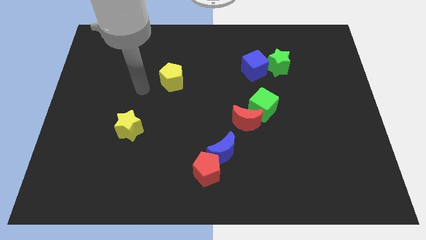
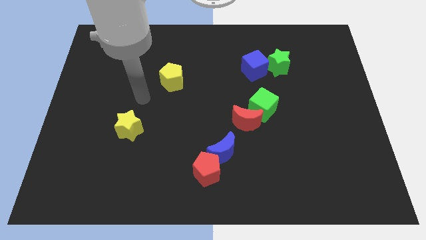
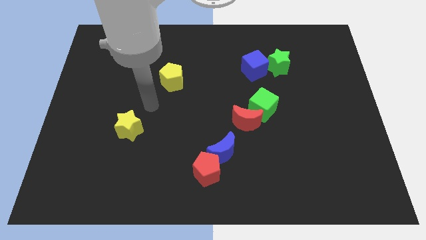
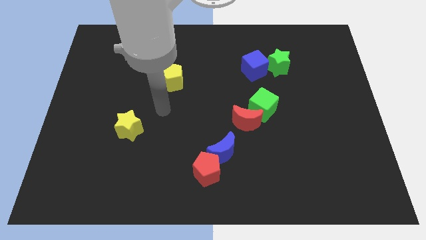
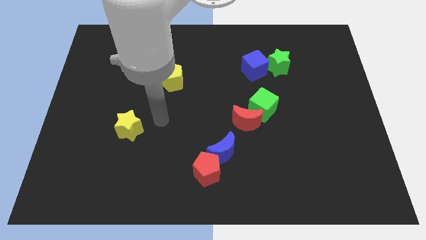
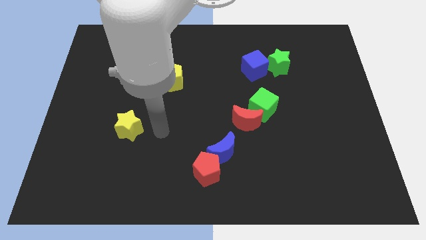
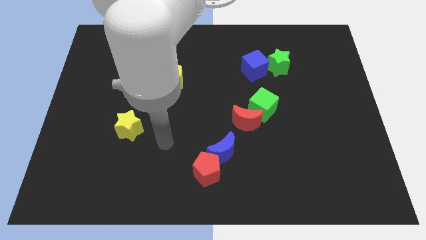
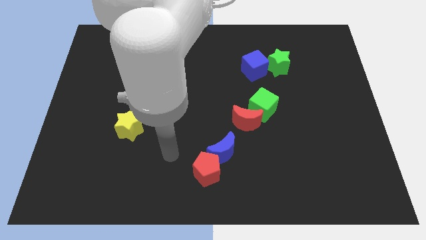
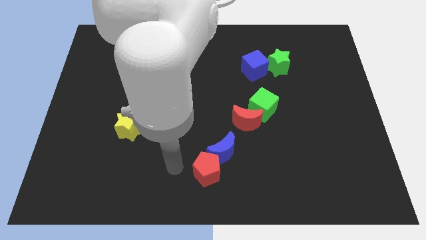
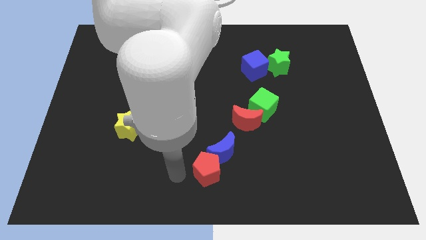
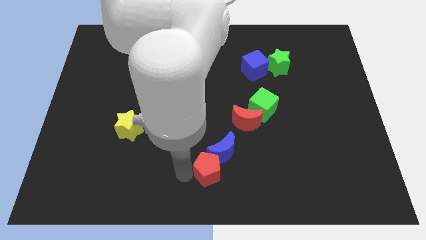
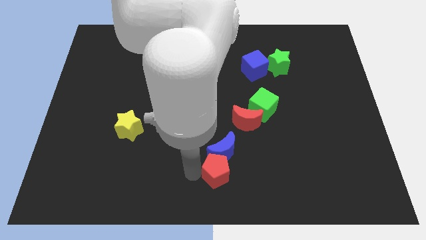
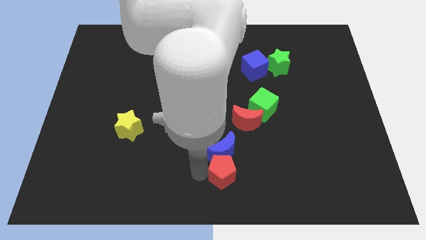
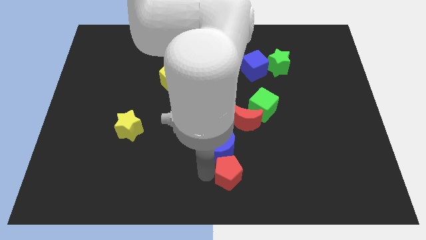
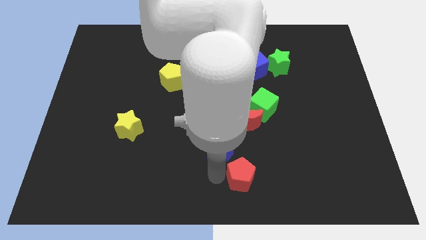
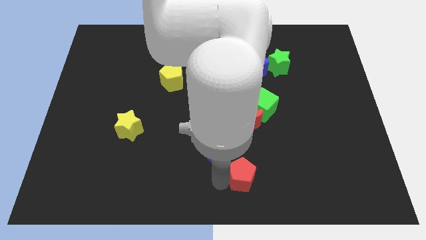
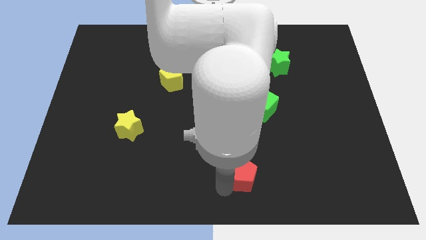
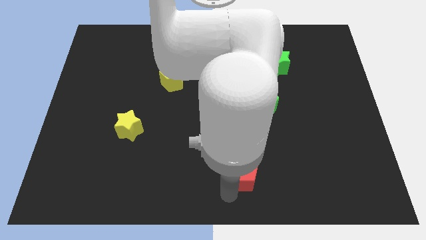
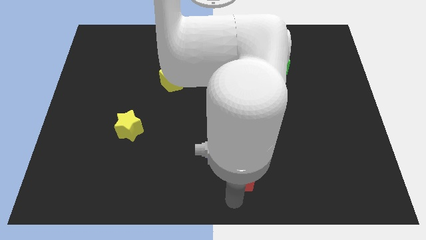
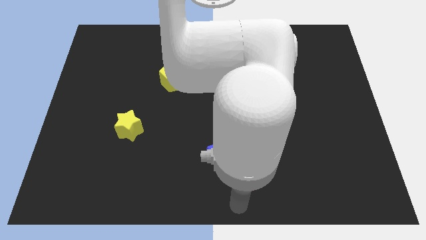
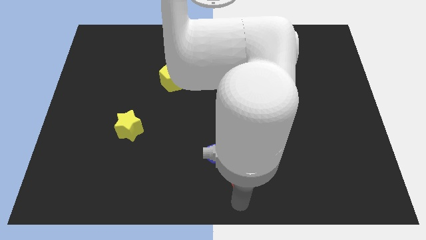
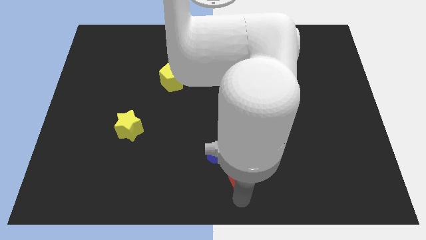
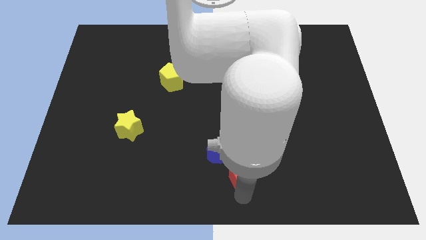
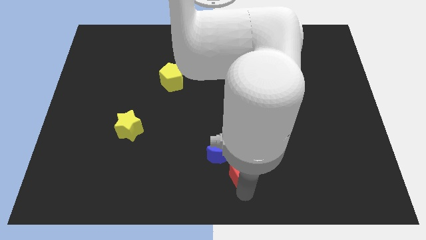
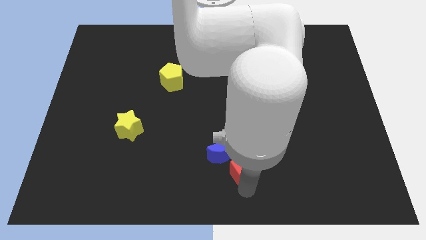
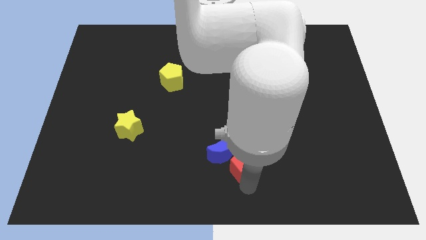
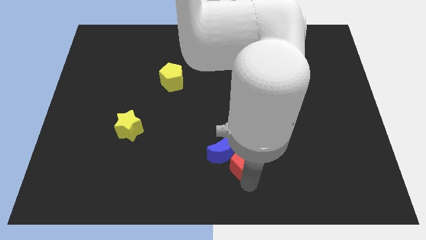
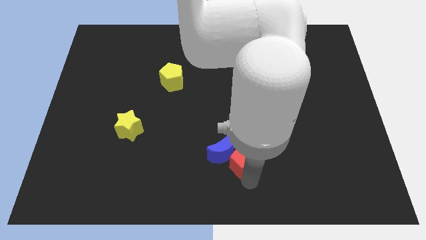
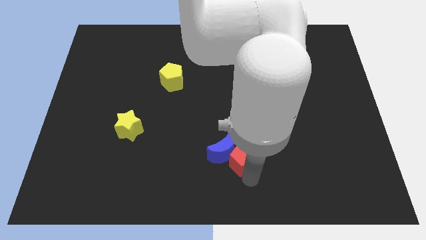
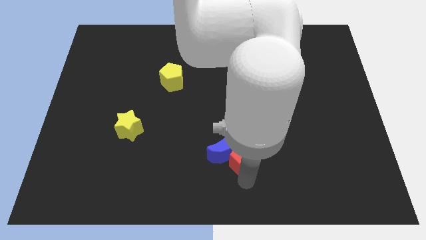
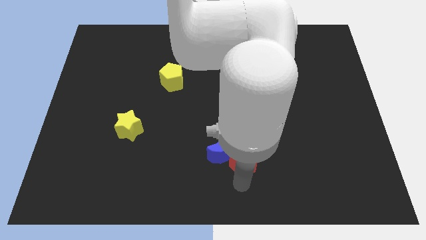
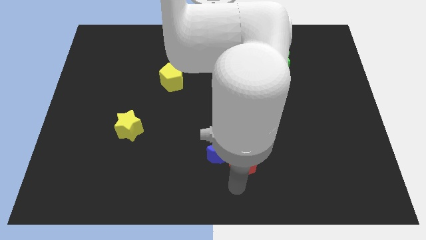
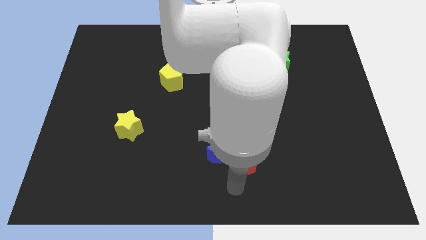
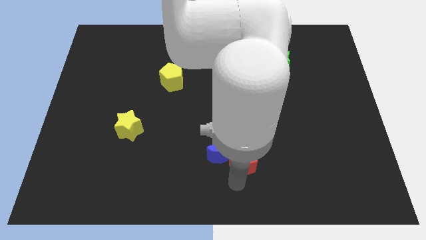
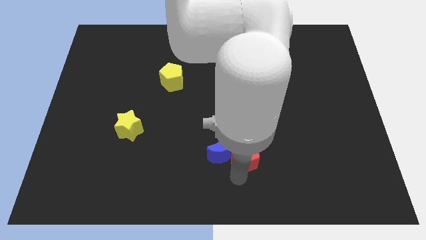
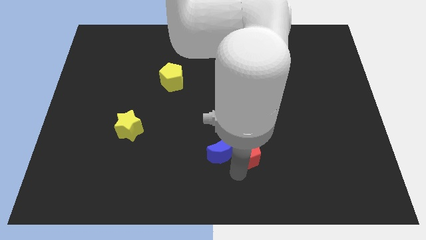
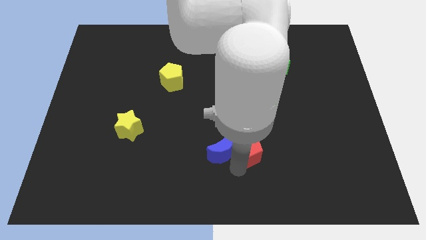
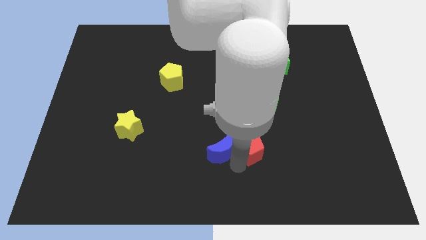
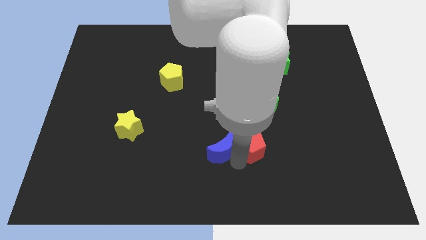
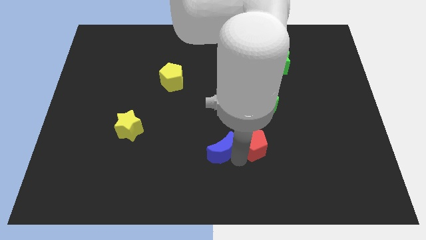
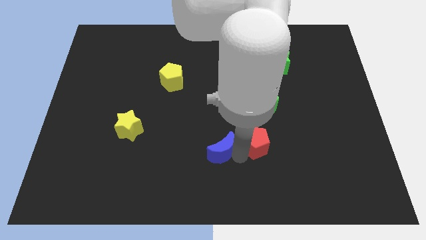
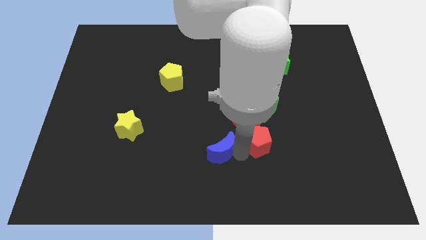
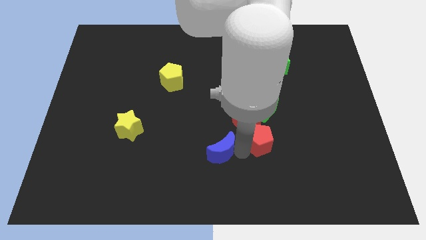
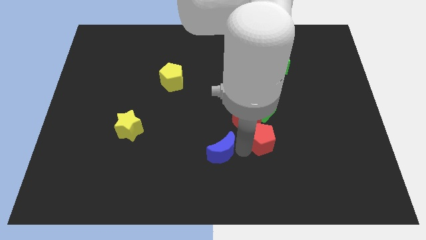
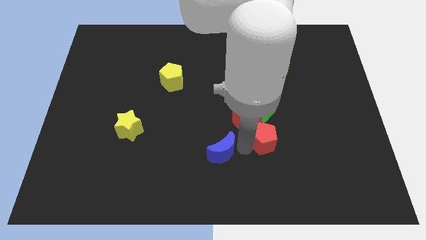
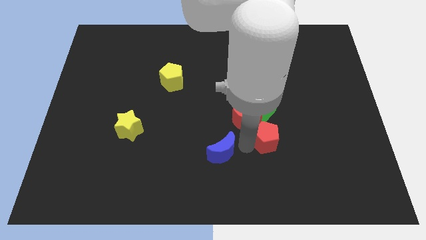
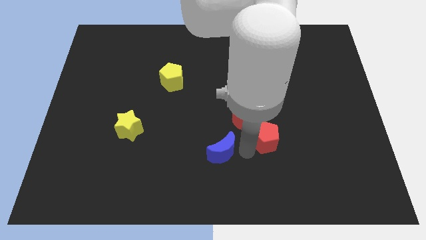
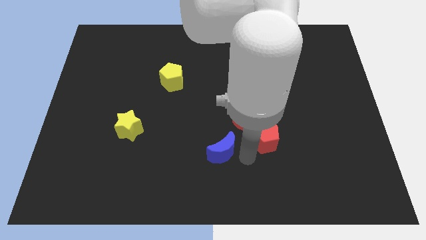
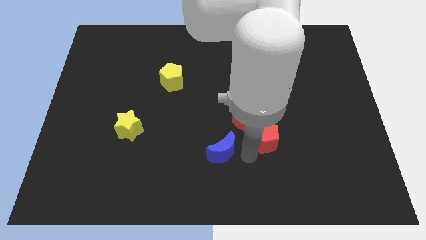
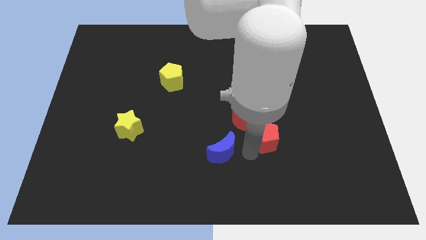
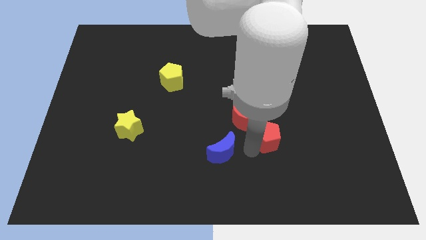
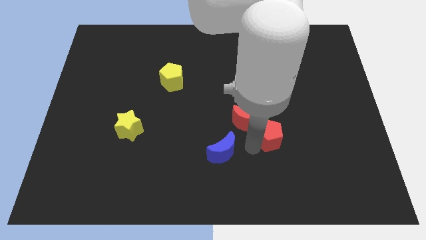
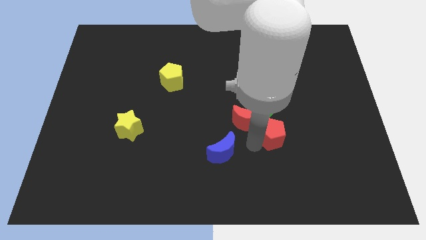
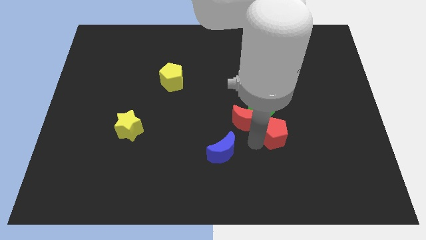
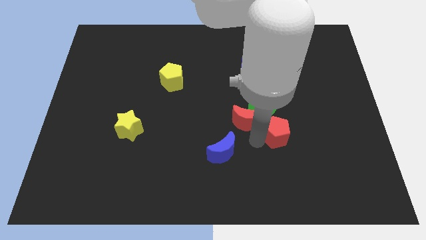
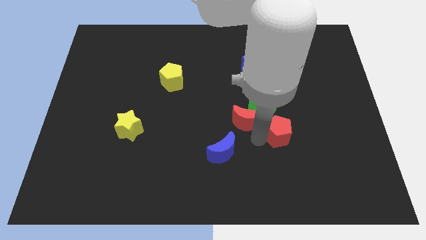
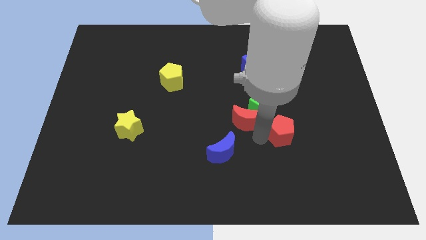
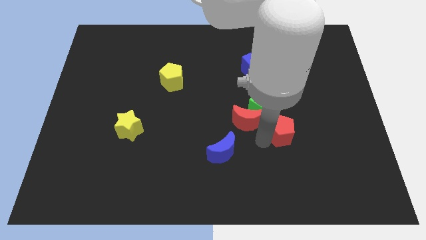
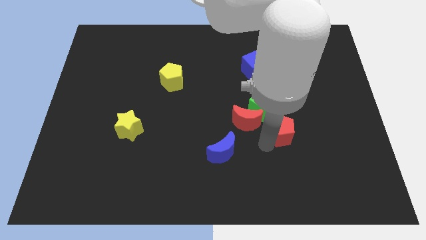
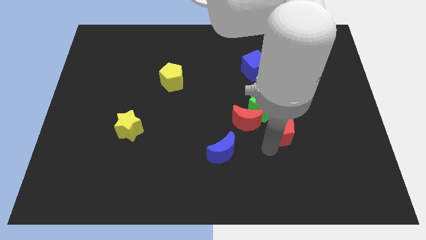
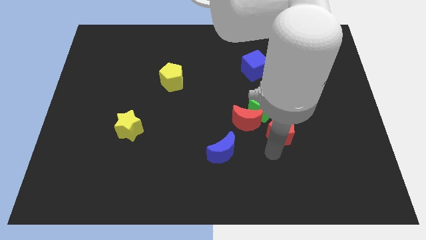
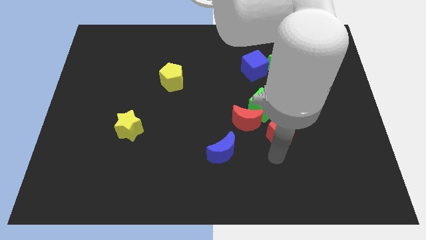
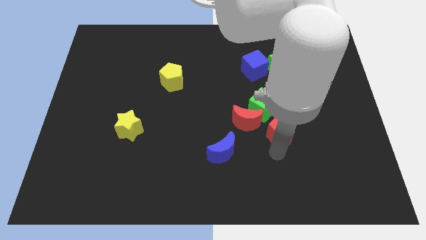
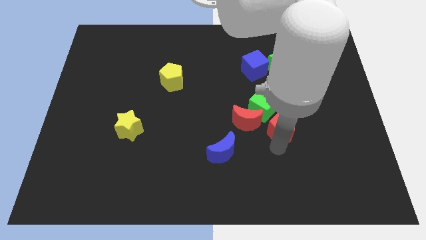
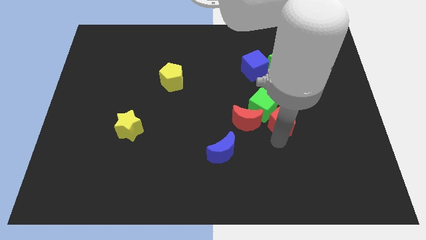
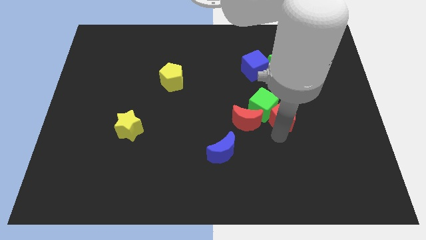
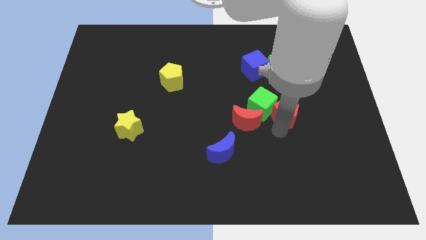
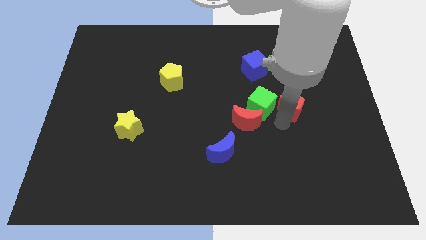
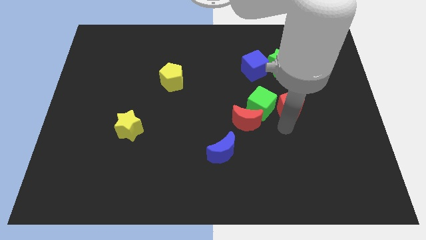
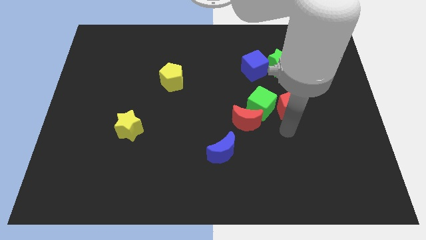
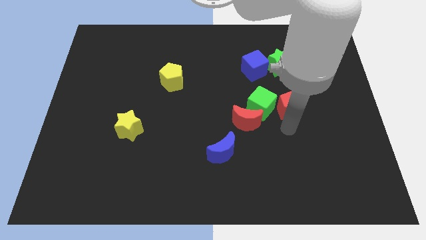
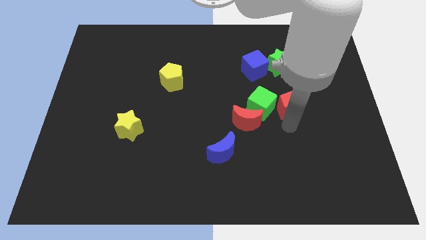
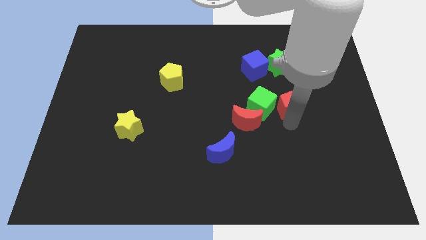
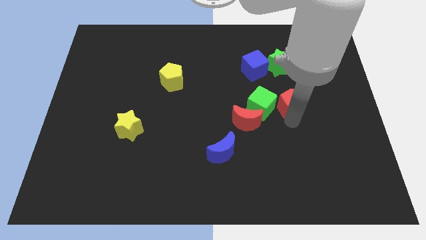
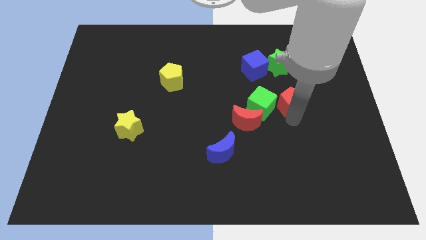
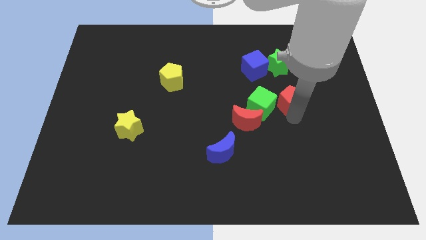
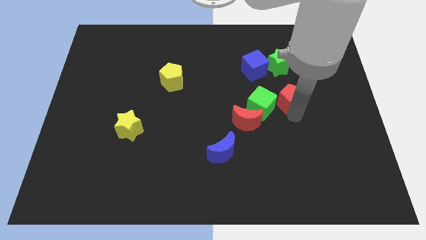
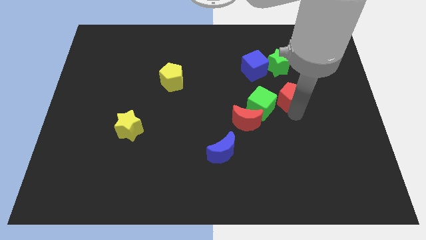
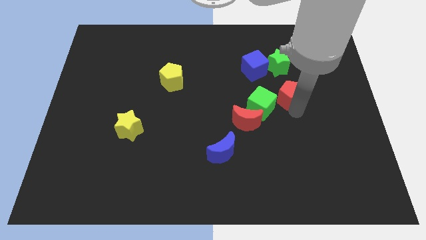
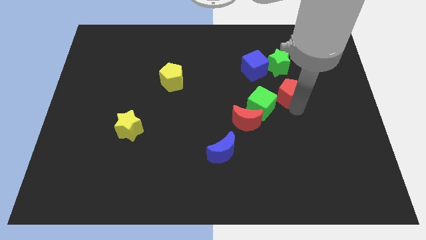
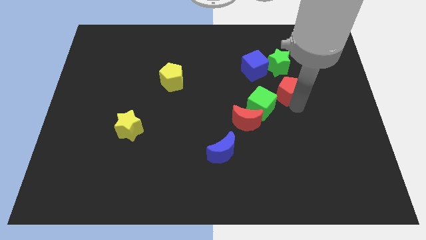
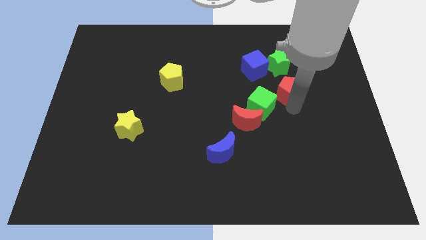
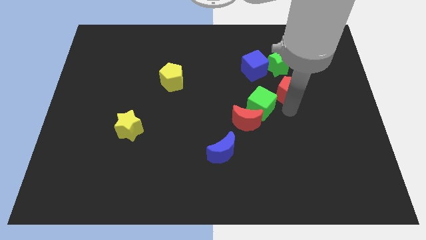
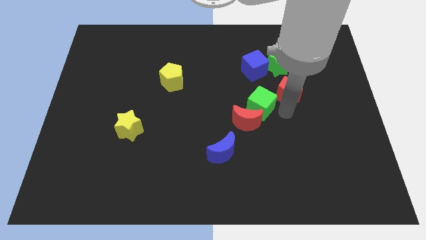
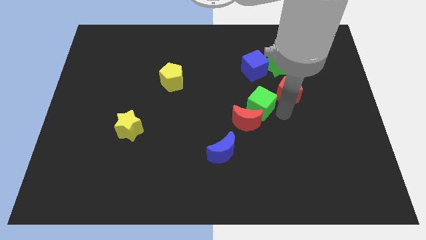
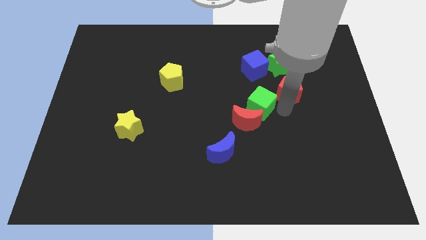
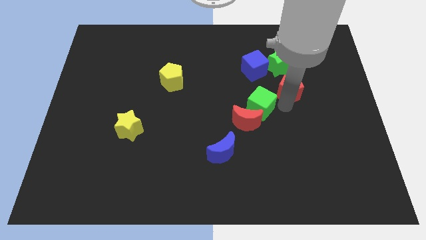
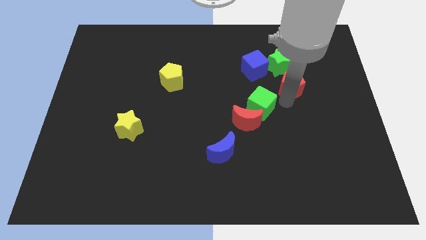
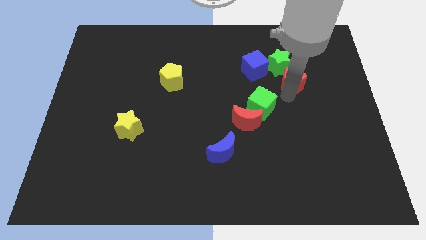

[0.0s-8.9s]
put the red pentagon to the right of the blue cube
